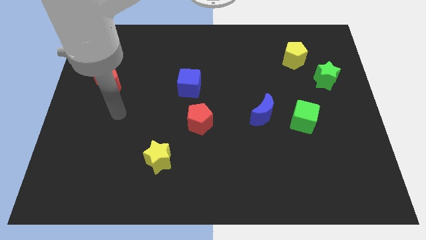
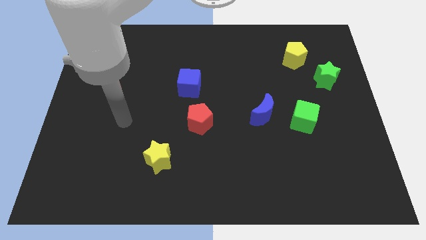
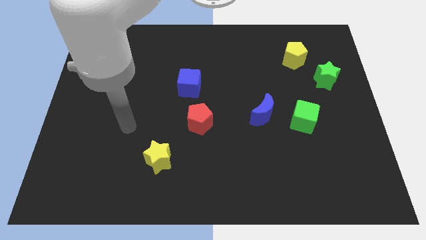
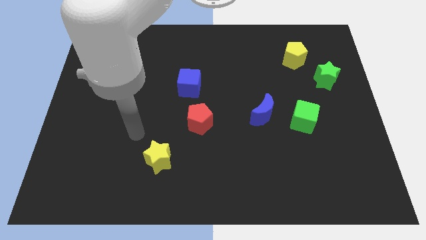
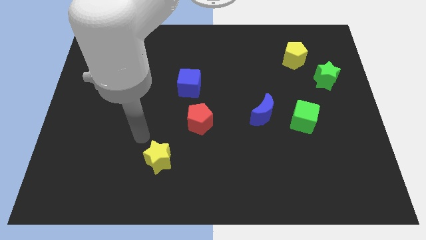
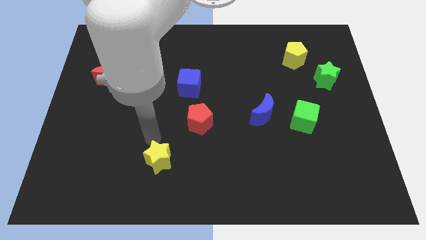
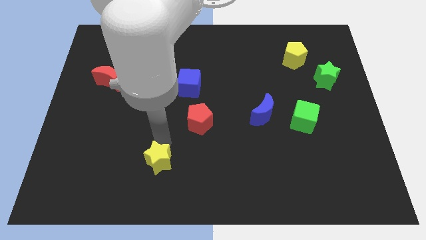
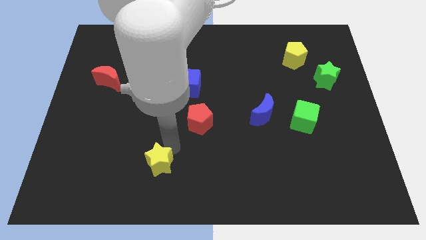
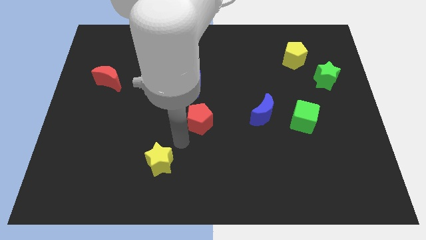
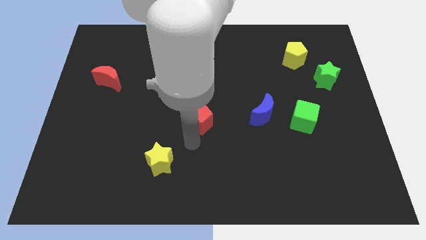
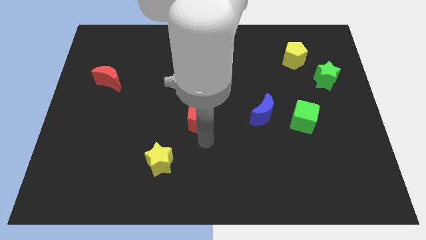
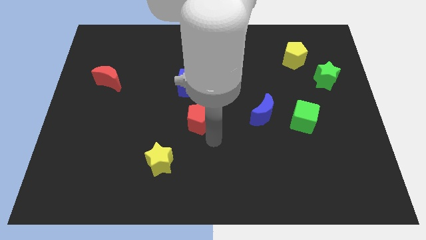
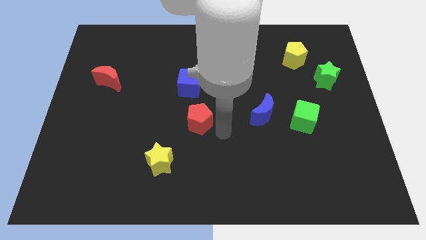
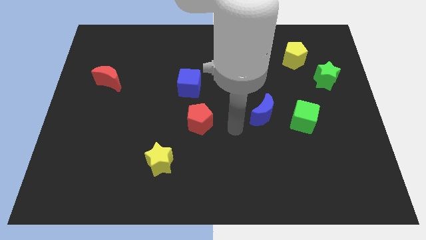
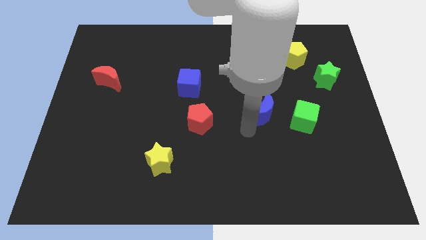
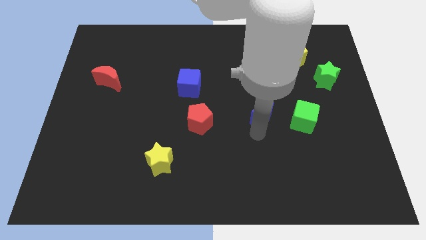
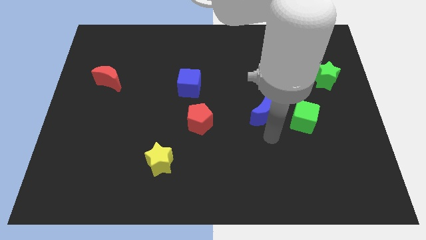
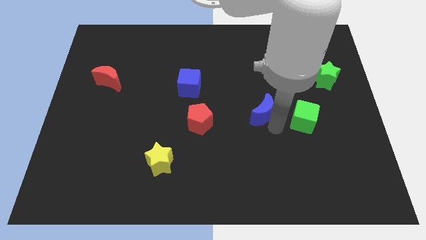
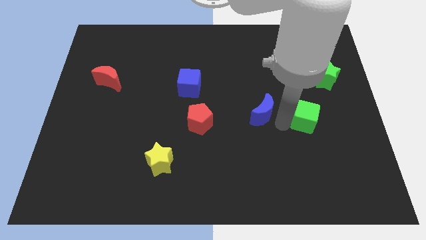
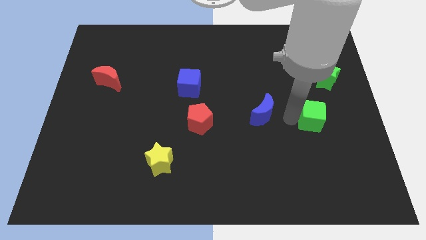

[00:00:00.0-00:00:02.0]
separate the blue moon from the green cube

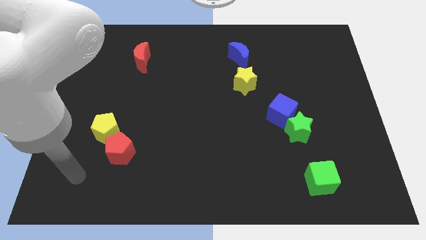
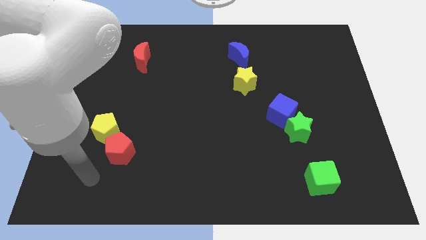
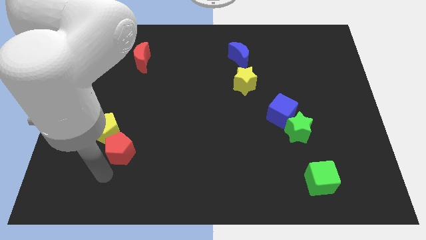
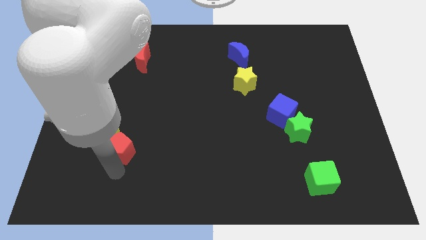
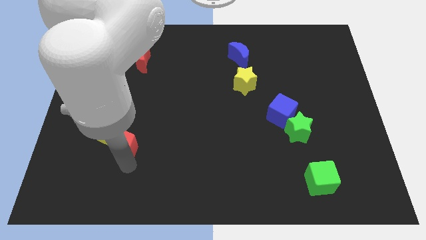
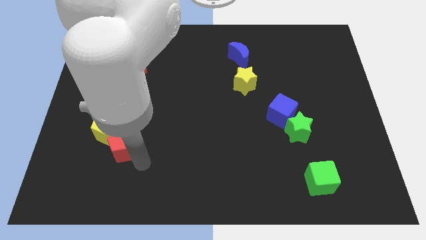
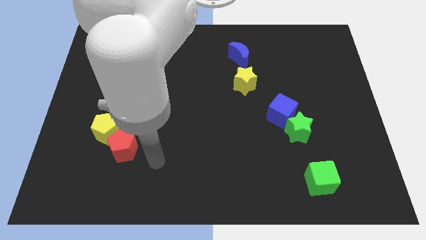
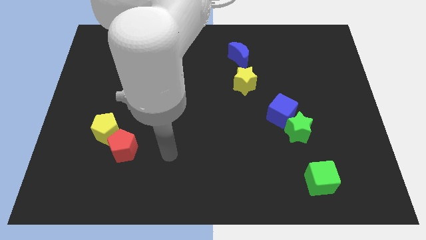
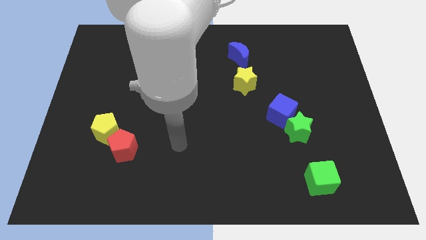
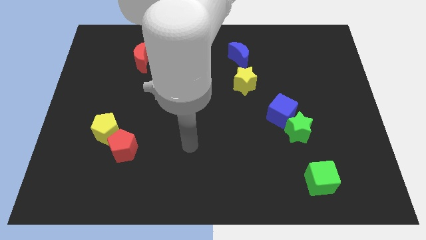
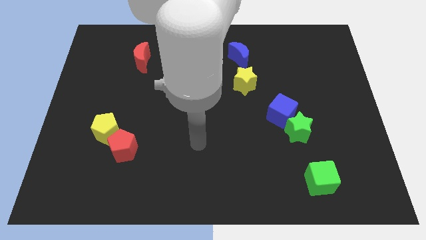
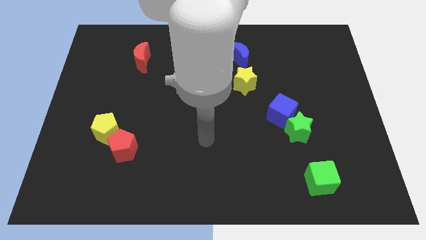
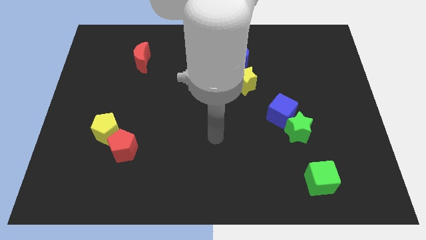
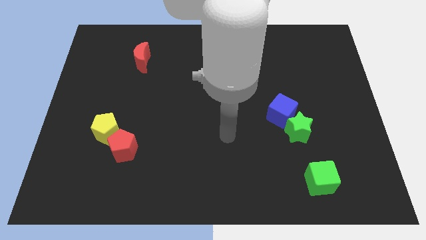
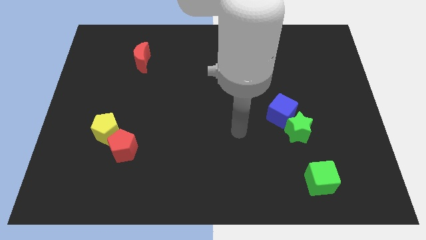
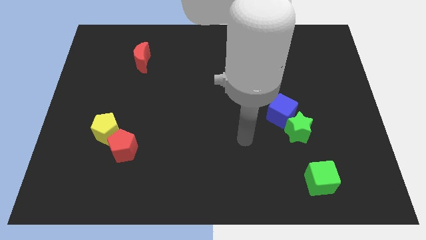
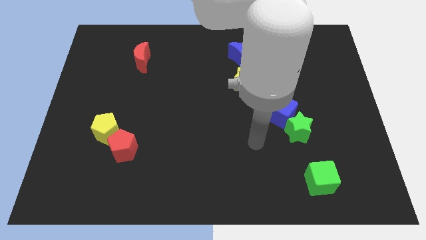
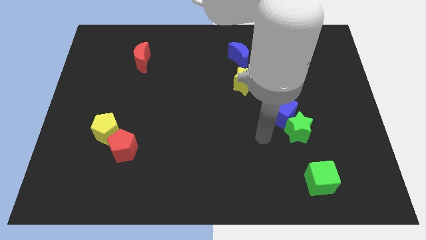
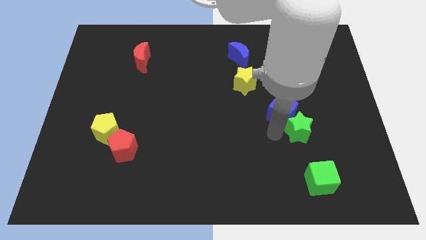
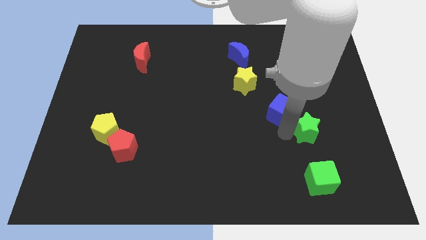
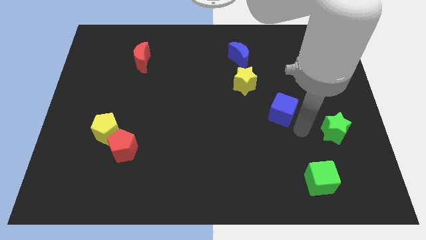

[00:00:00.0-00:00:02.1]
pull the blue cube apart from the green star

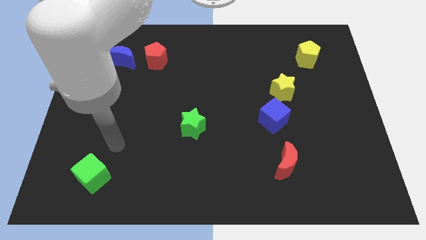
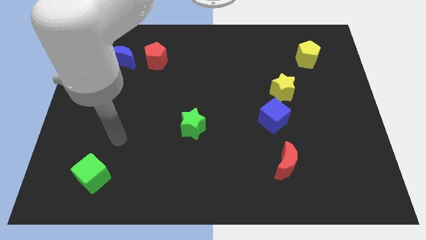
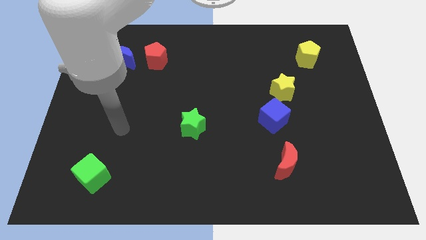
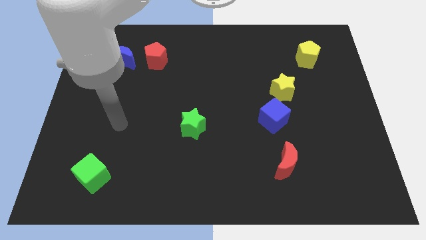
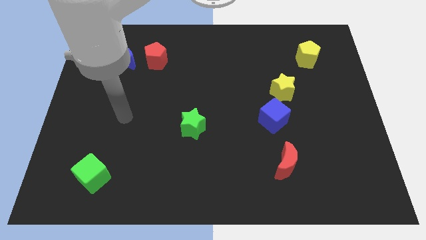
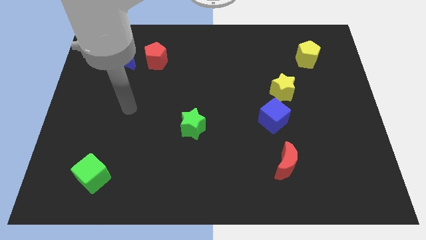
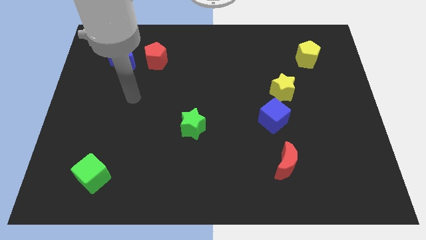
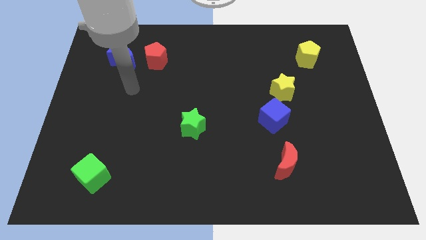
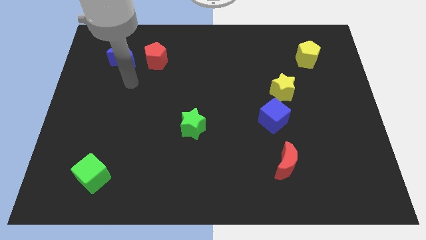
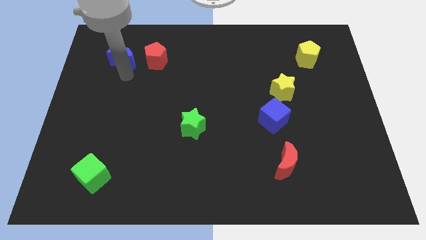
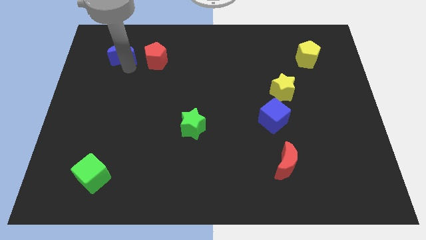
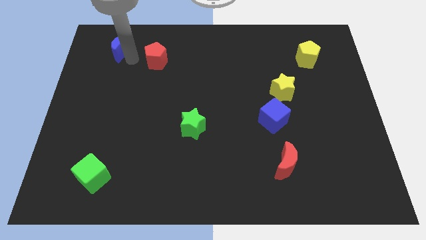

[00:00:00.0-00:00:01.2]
separate the red pentagon from the blue moon

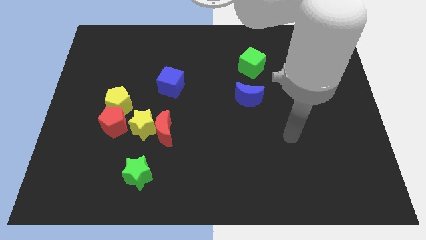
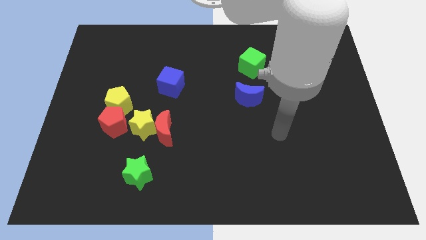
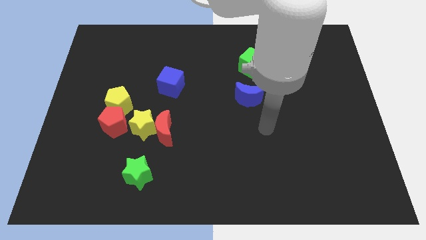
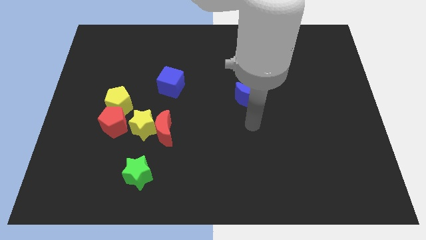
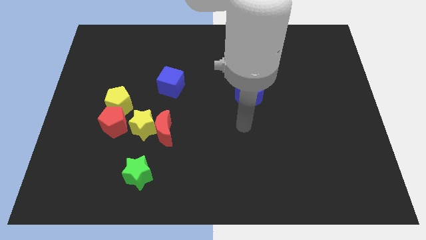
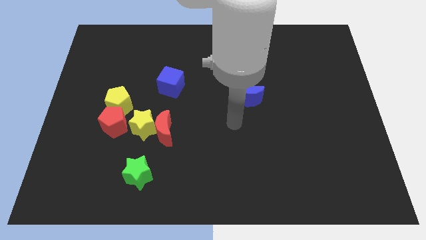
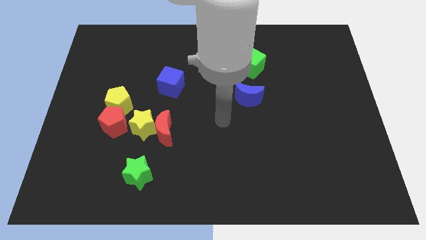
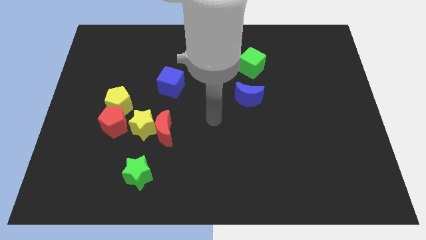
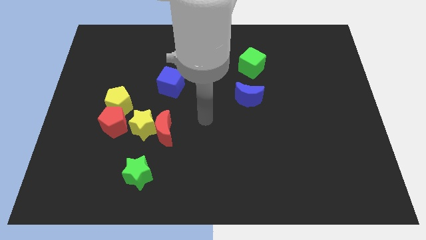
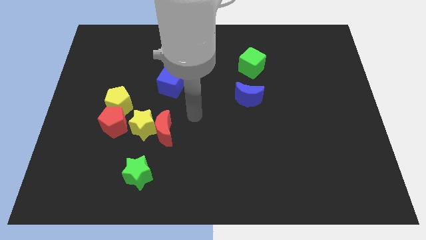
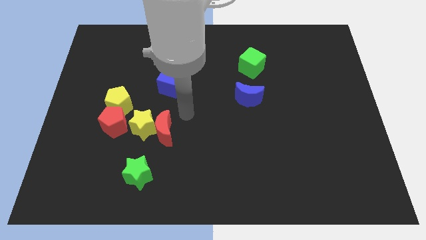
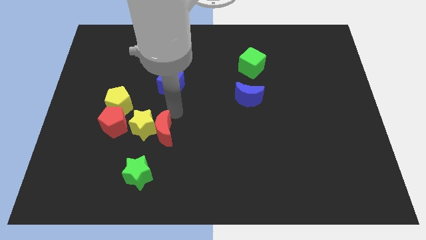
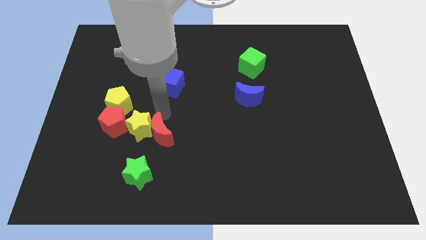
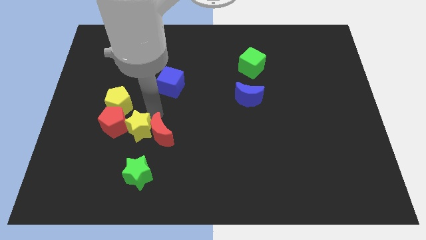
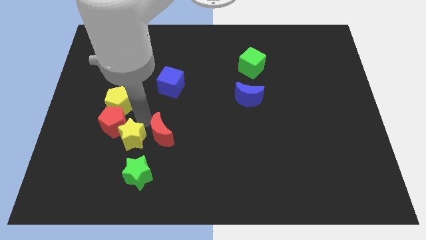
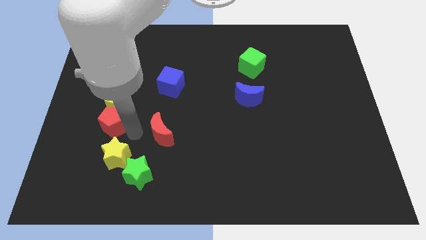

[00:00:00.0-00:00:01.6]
move the red moon away from the yellow star

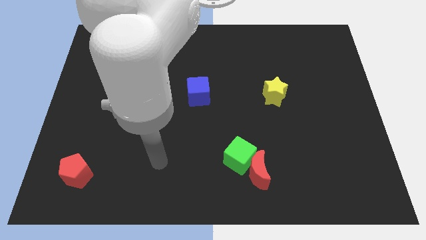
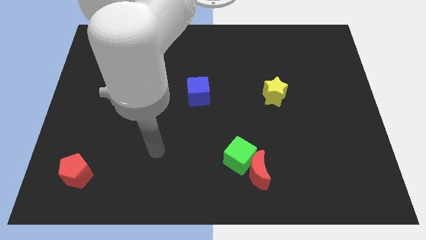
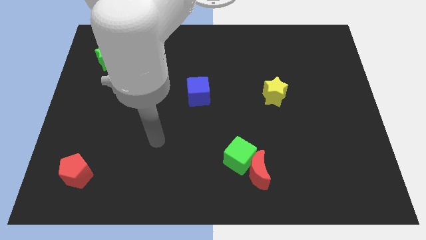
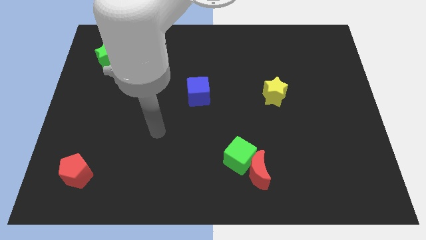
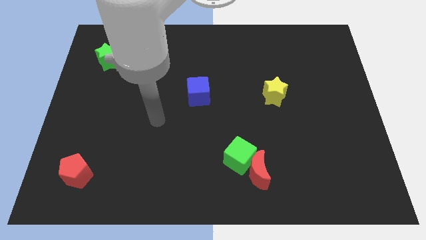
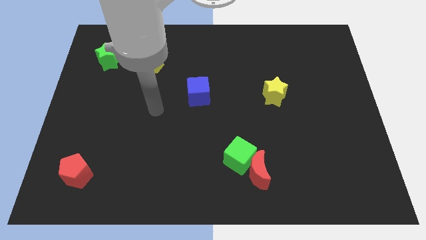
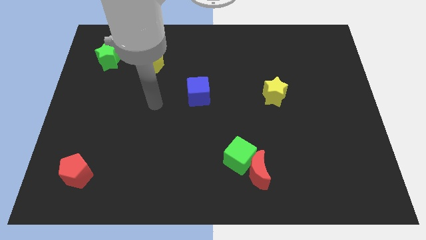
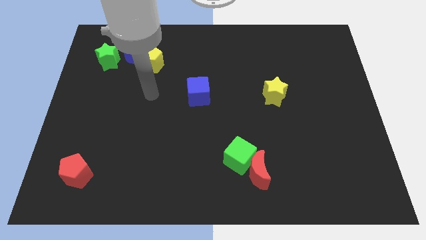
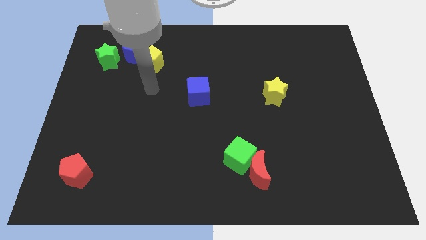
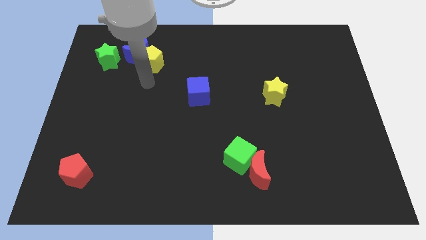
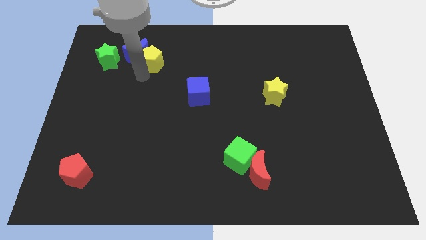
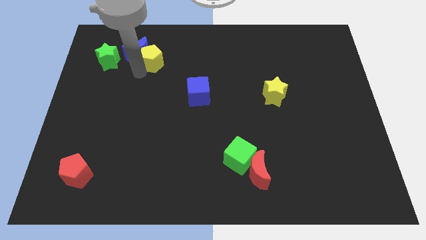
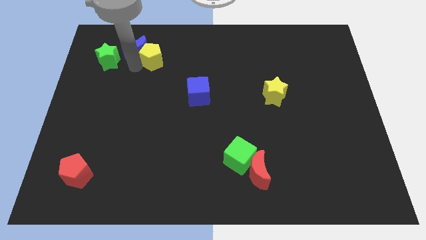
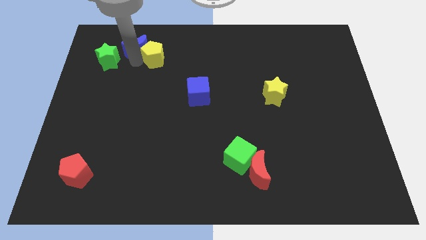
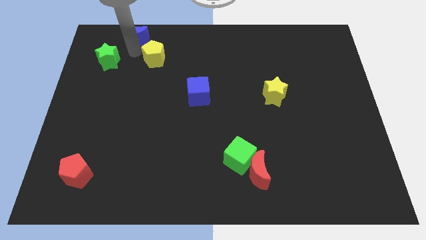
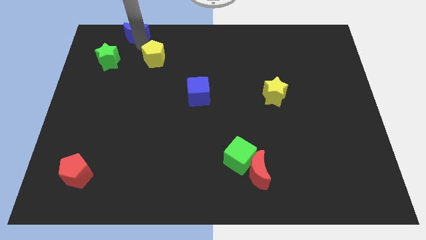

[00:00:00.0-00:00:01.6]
move the yellow pentagon away from the blue moon

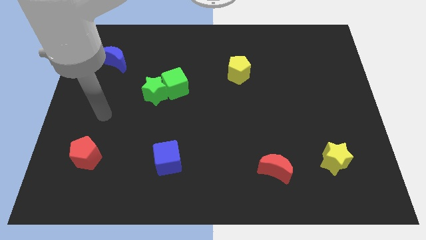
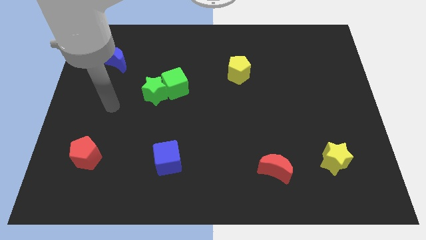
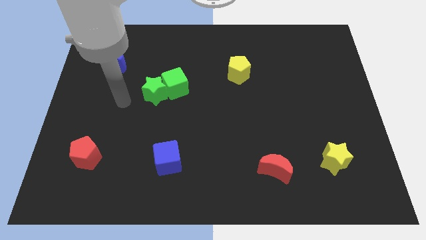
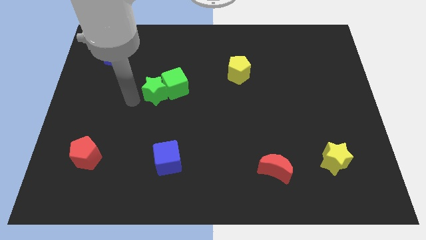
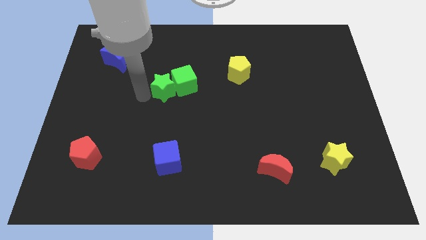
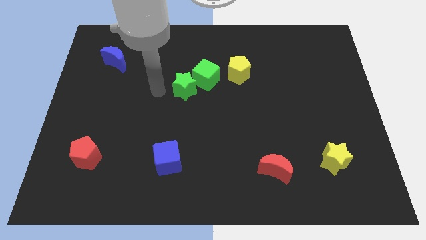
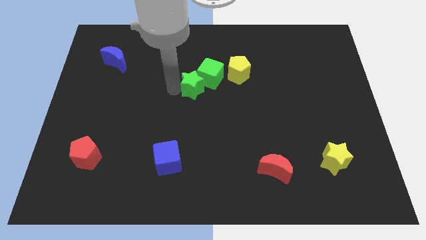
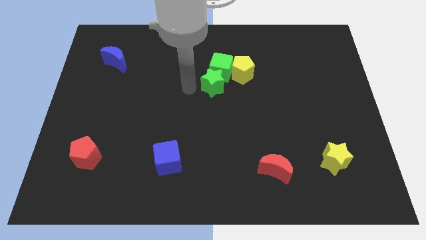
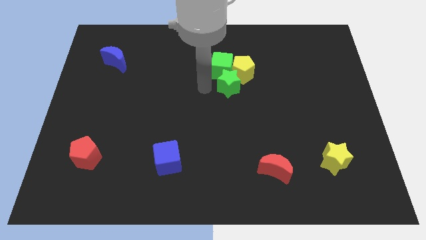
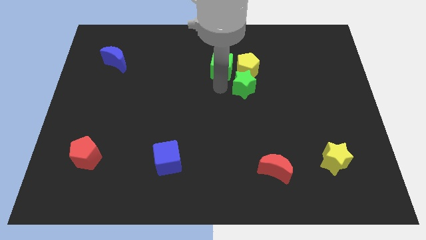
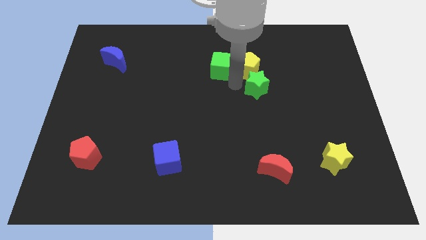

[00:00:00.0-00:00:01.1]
separate the green cube from the green star
